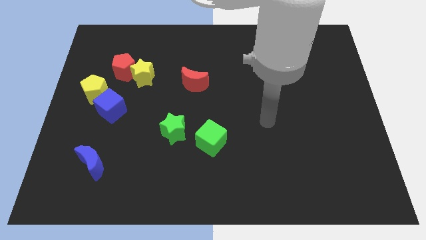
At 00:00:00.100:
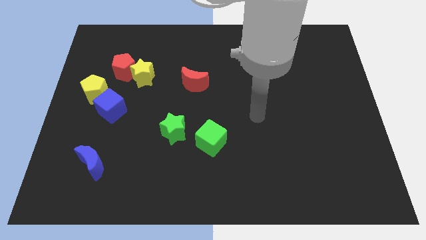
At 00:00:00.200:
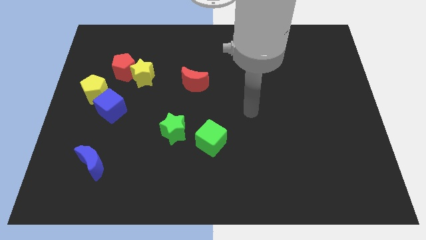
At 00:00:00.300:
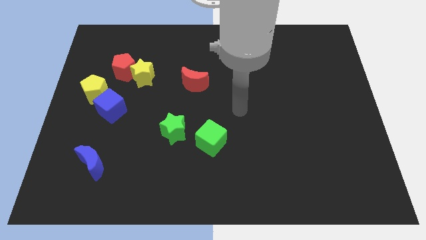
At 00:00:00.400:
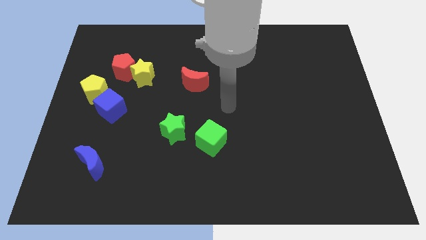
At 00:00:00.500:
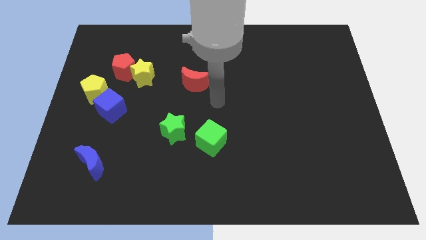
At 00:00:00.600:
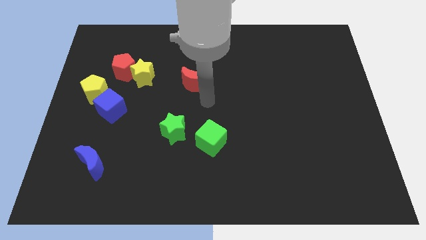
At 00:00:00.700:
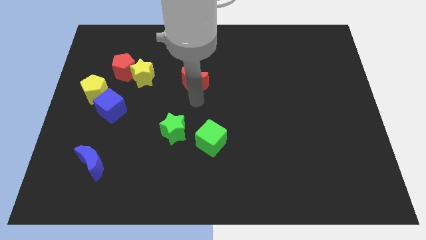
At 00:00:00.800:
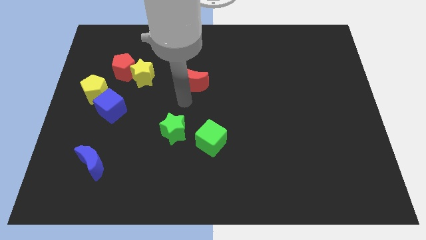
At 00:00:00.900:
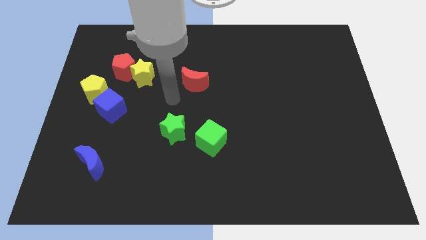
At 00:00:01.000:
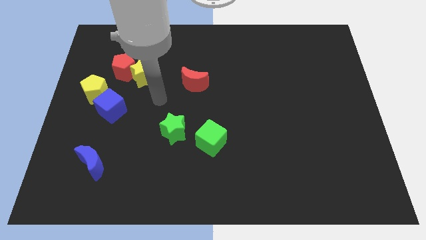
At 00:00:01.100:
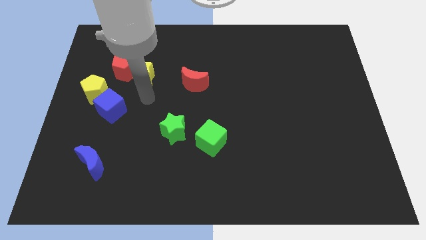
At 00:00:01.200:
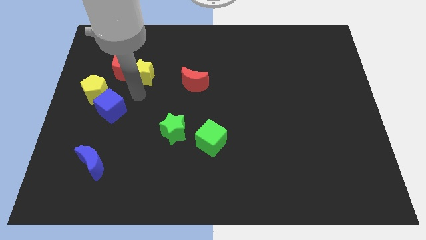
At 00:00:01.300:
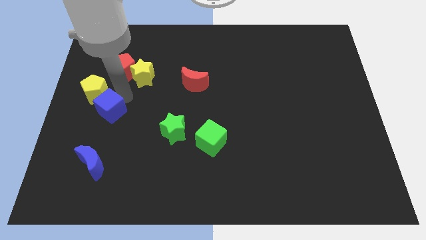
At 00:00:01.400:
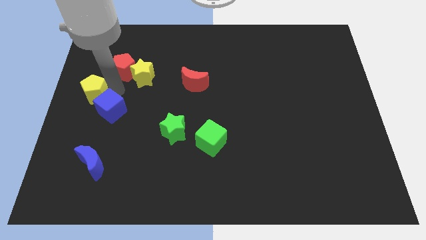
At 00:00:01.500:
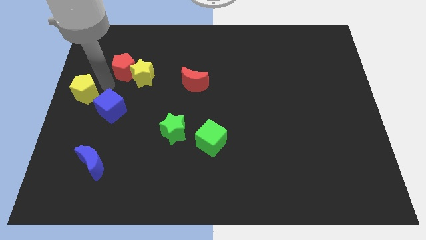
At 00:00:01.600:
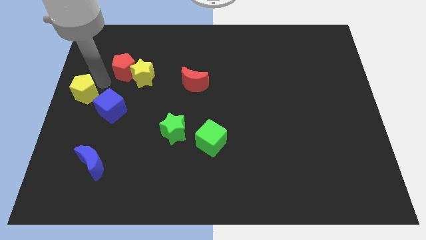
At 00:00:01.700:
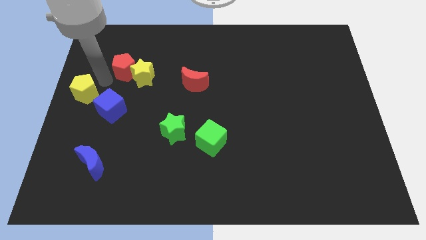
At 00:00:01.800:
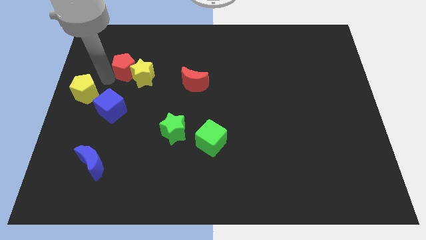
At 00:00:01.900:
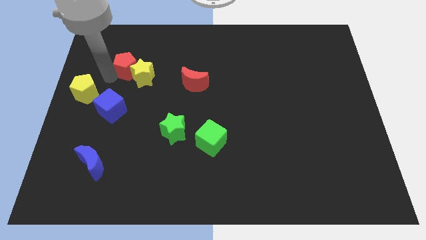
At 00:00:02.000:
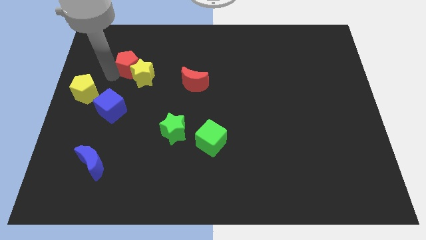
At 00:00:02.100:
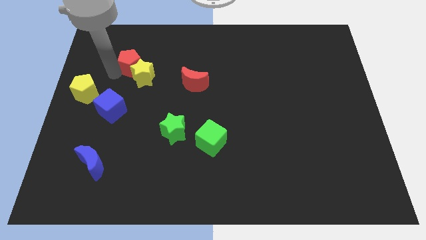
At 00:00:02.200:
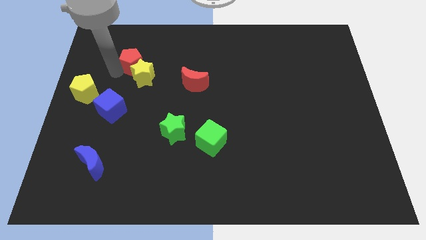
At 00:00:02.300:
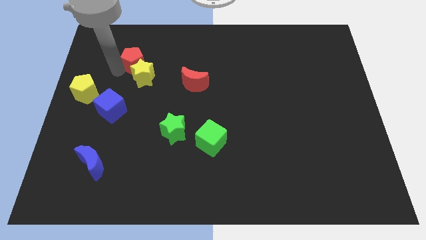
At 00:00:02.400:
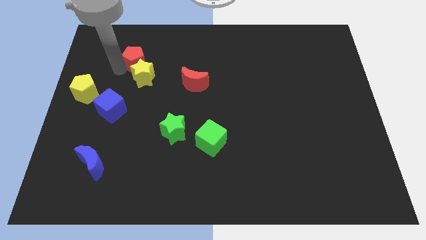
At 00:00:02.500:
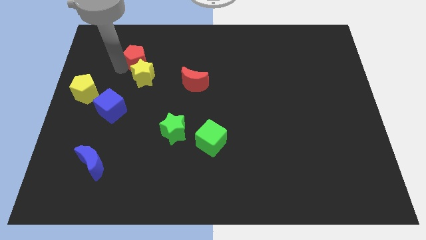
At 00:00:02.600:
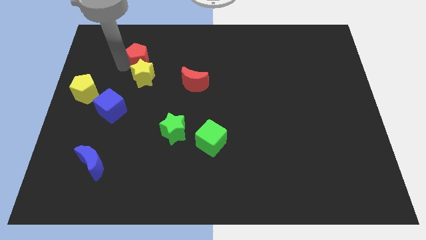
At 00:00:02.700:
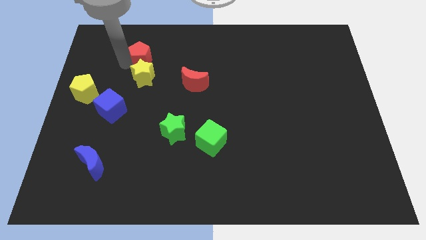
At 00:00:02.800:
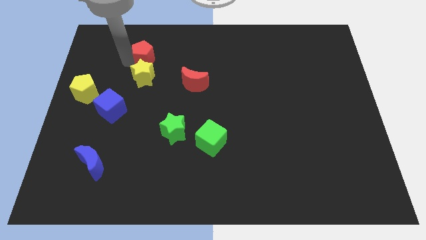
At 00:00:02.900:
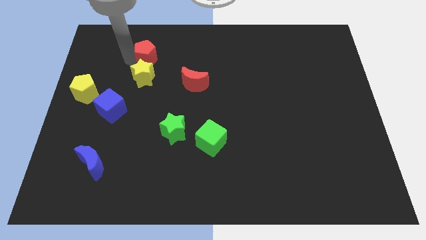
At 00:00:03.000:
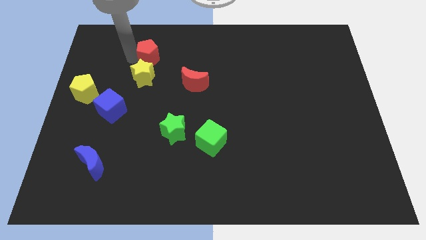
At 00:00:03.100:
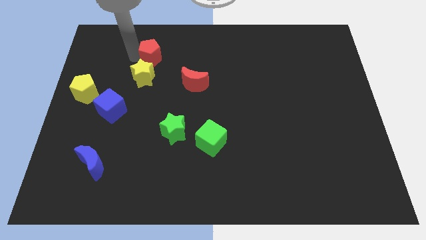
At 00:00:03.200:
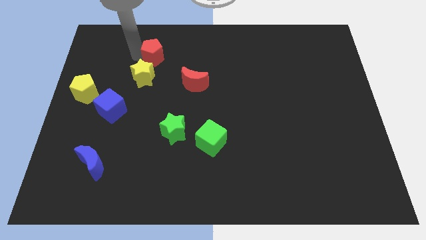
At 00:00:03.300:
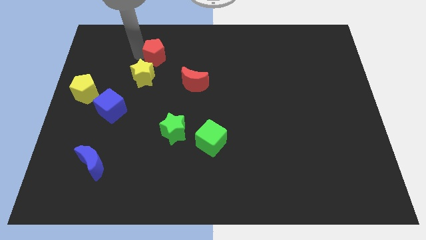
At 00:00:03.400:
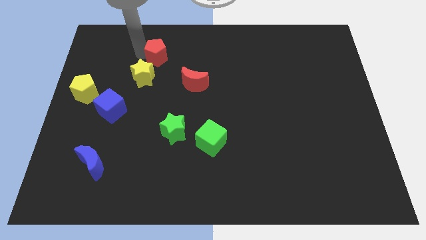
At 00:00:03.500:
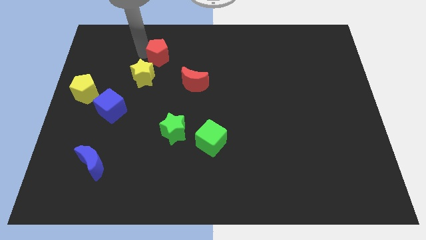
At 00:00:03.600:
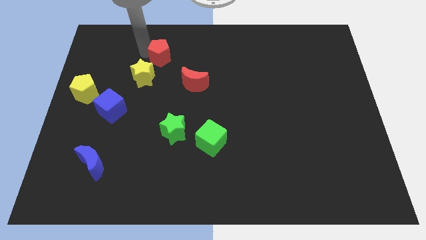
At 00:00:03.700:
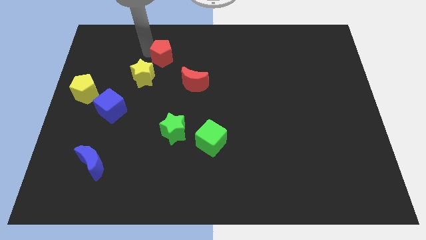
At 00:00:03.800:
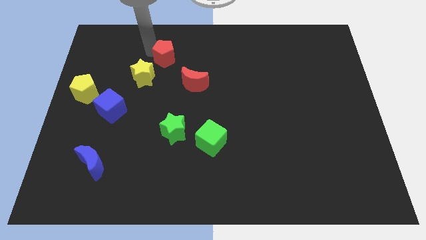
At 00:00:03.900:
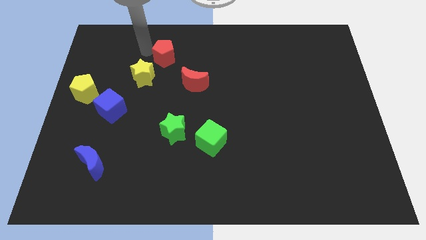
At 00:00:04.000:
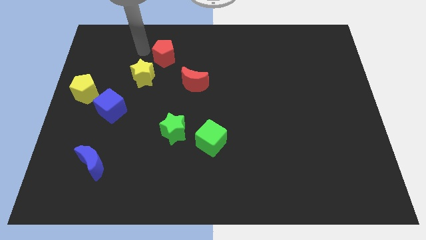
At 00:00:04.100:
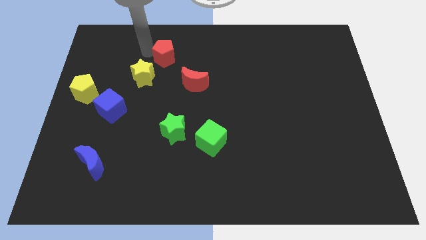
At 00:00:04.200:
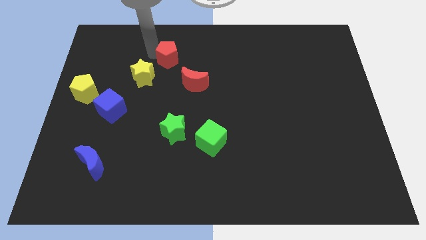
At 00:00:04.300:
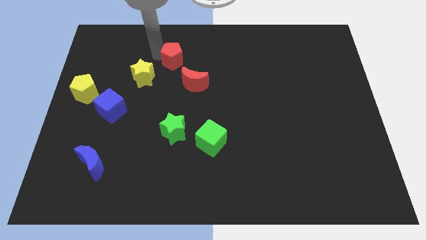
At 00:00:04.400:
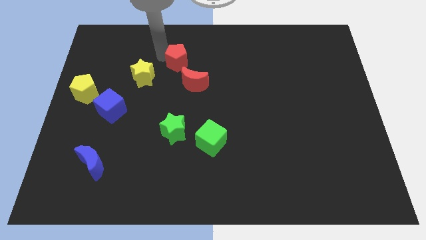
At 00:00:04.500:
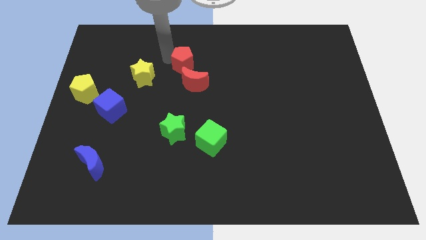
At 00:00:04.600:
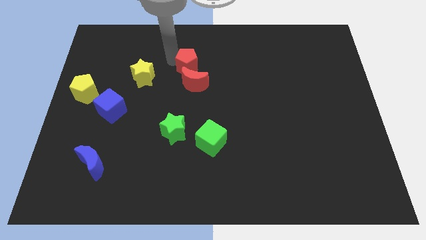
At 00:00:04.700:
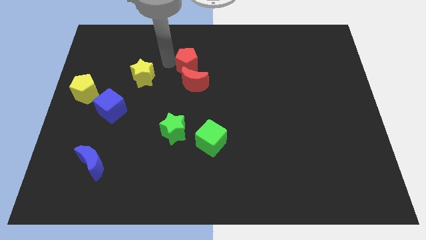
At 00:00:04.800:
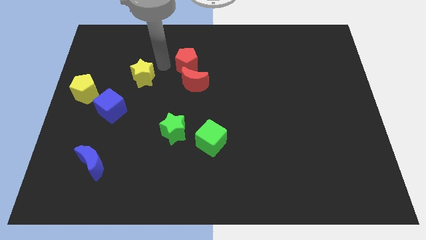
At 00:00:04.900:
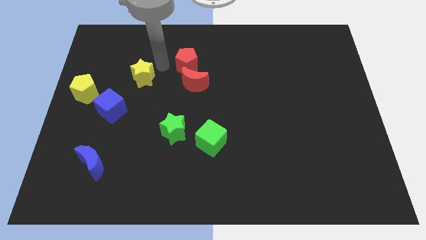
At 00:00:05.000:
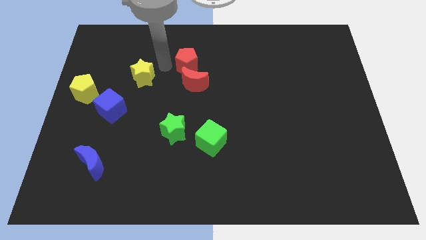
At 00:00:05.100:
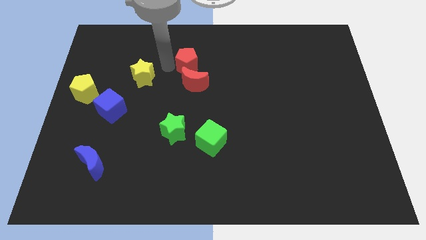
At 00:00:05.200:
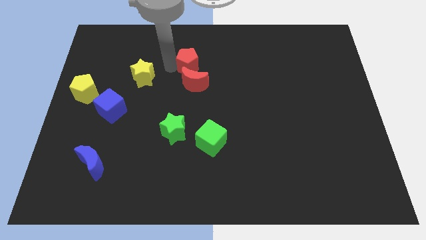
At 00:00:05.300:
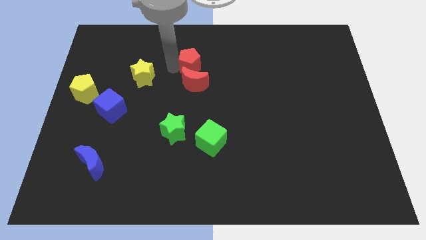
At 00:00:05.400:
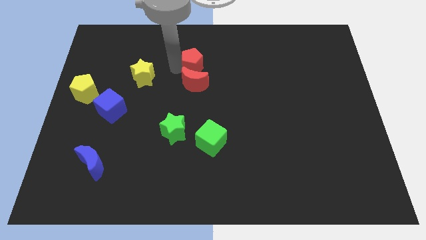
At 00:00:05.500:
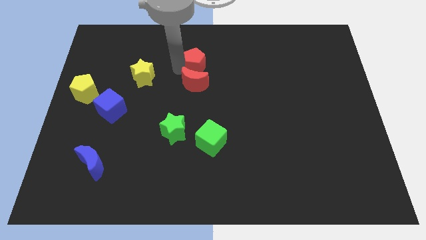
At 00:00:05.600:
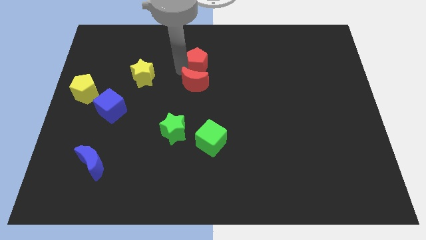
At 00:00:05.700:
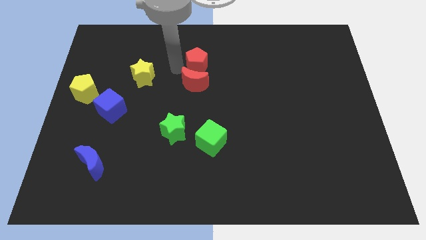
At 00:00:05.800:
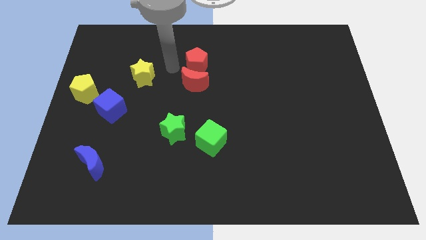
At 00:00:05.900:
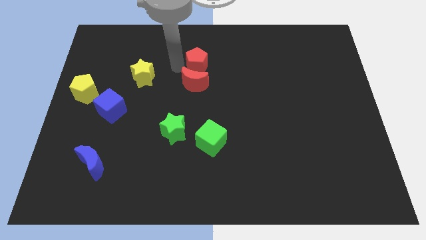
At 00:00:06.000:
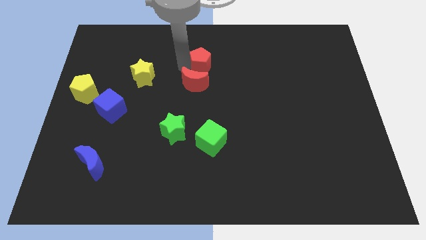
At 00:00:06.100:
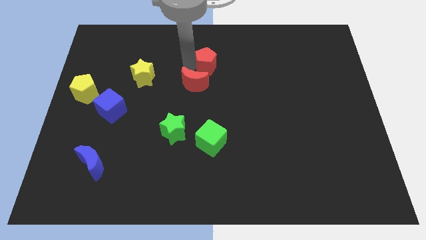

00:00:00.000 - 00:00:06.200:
slide the red pentagon right

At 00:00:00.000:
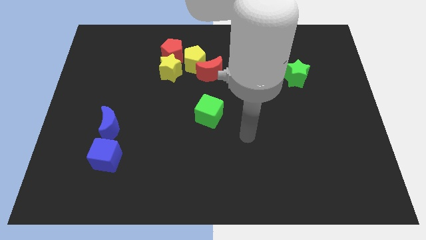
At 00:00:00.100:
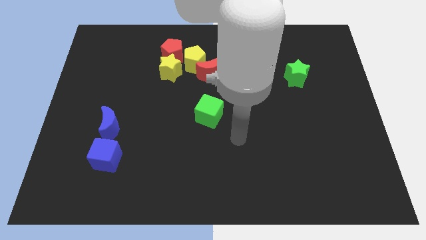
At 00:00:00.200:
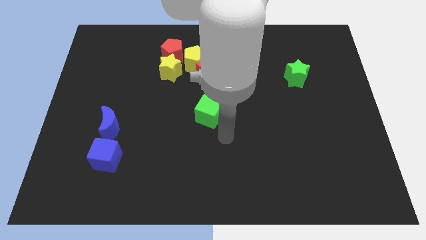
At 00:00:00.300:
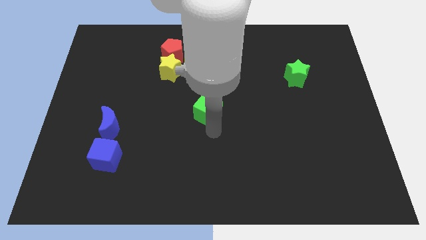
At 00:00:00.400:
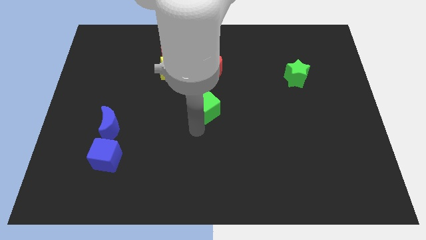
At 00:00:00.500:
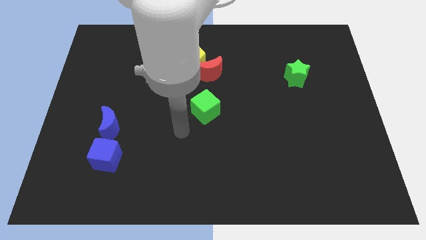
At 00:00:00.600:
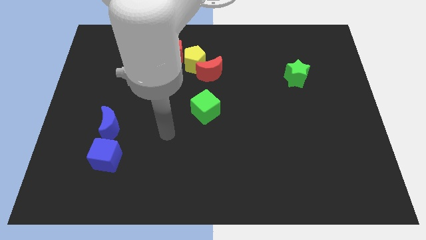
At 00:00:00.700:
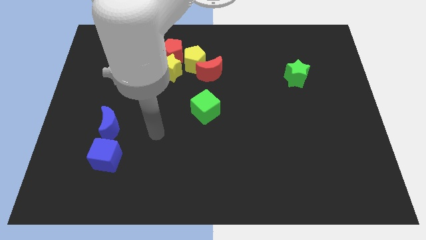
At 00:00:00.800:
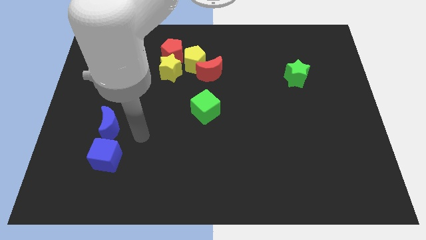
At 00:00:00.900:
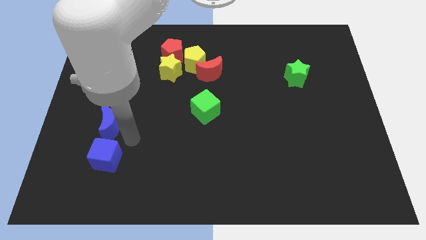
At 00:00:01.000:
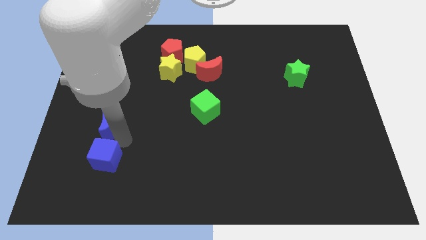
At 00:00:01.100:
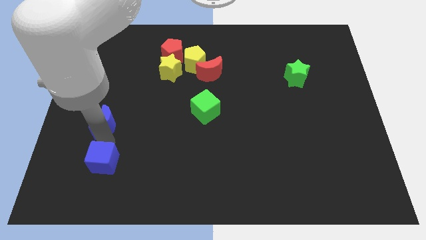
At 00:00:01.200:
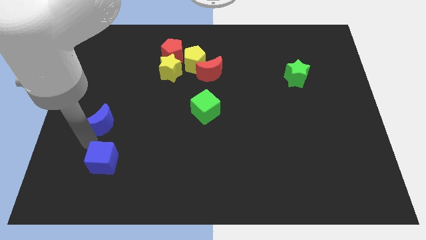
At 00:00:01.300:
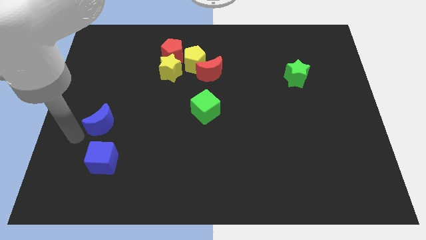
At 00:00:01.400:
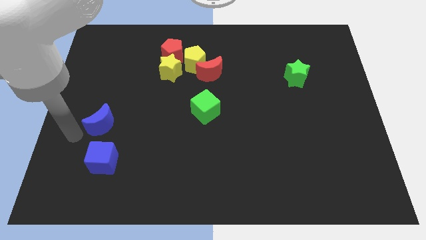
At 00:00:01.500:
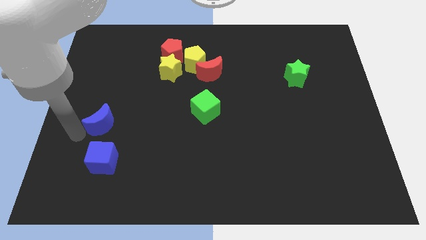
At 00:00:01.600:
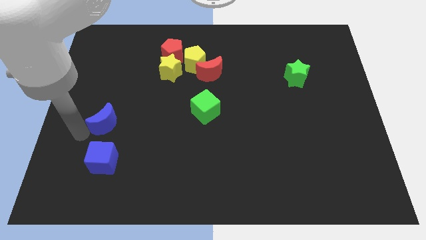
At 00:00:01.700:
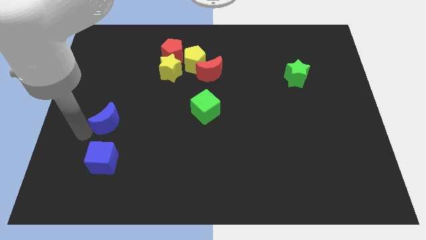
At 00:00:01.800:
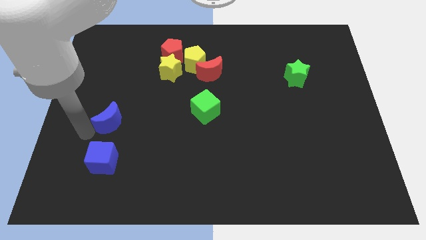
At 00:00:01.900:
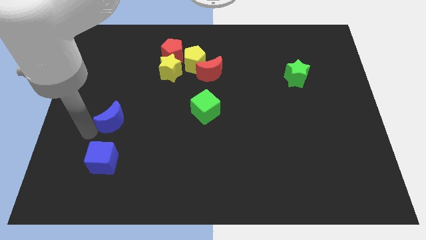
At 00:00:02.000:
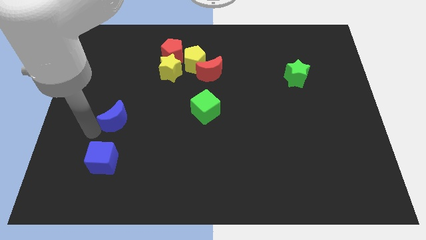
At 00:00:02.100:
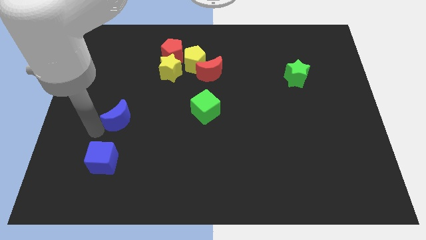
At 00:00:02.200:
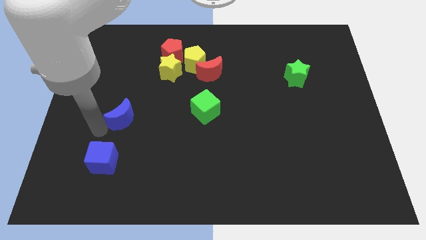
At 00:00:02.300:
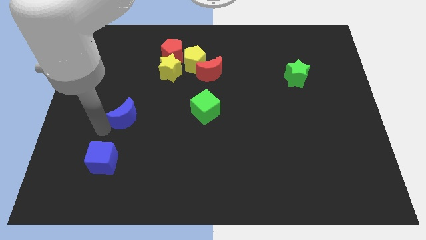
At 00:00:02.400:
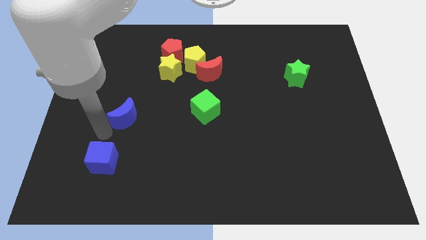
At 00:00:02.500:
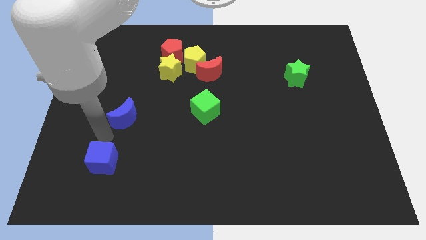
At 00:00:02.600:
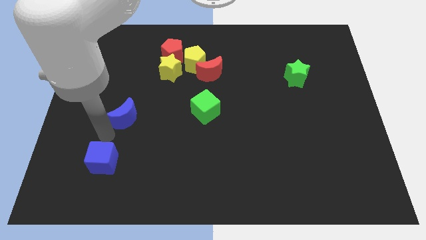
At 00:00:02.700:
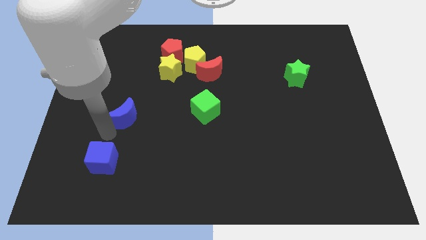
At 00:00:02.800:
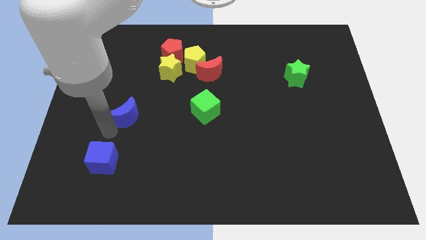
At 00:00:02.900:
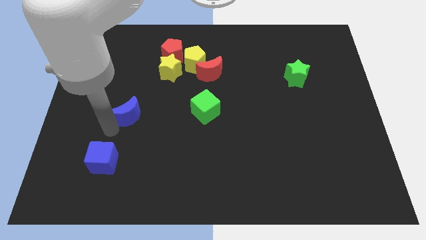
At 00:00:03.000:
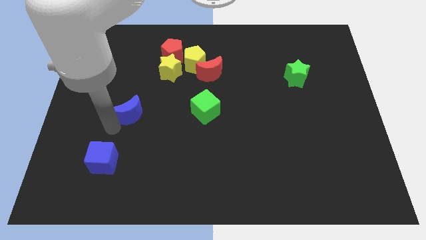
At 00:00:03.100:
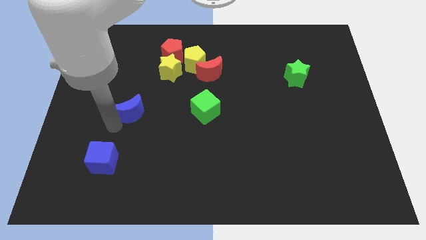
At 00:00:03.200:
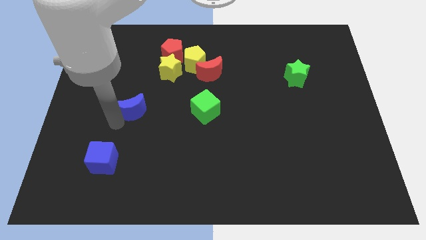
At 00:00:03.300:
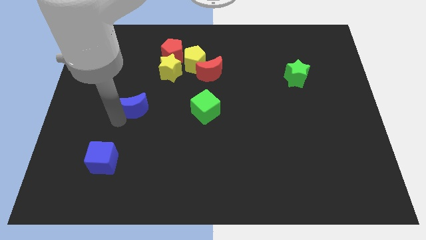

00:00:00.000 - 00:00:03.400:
slide the blue moon a bit upwards and then right
